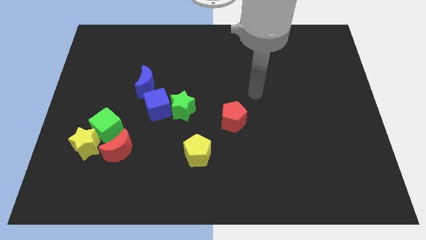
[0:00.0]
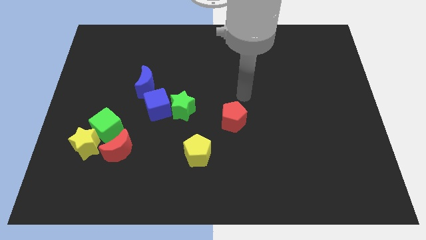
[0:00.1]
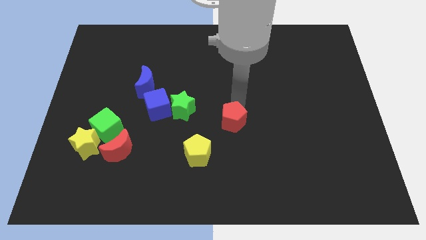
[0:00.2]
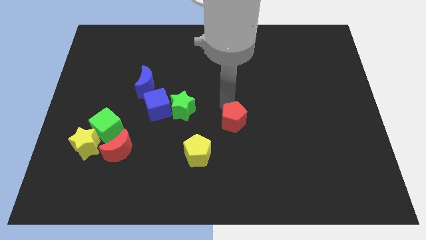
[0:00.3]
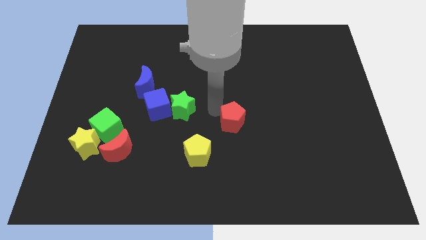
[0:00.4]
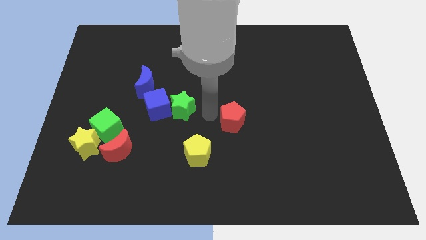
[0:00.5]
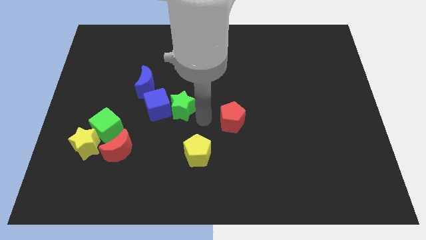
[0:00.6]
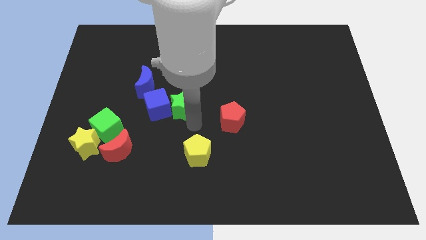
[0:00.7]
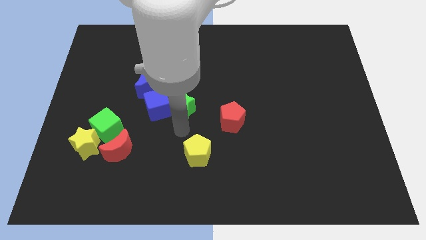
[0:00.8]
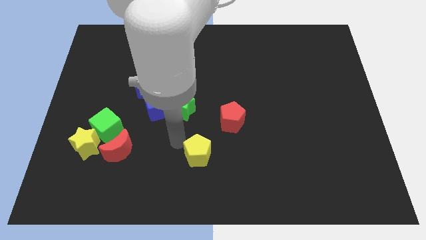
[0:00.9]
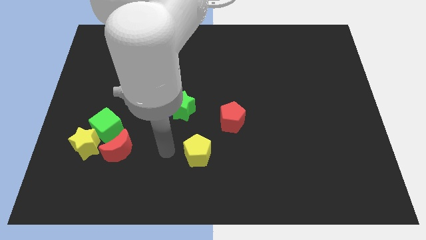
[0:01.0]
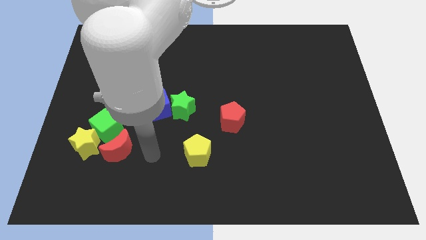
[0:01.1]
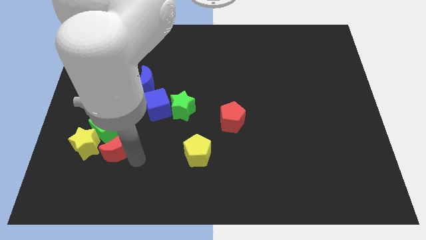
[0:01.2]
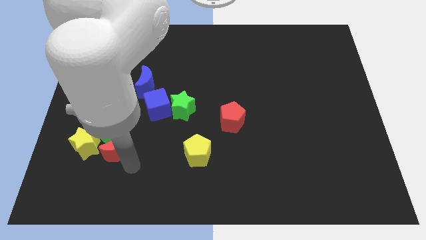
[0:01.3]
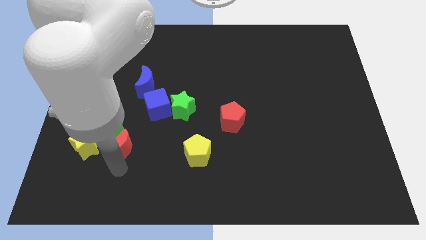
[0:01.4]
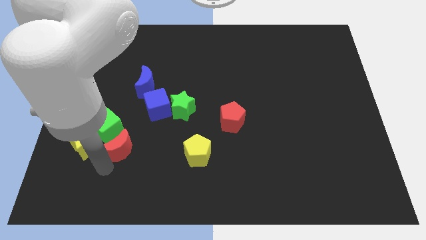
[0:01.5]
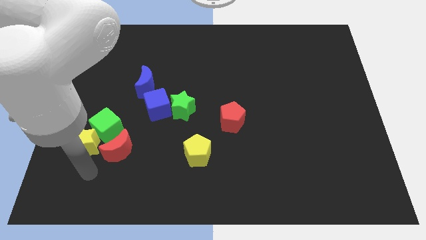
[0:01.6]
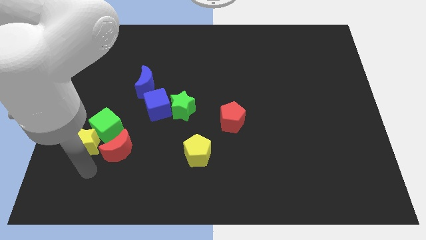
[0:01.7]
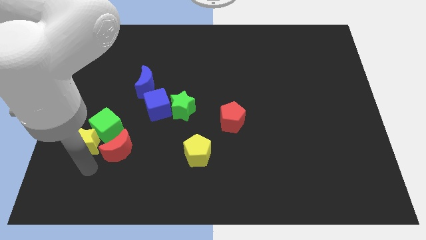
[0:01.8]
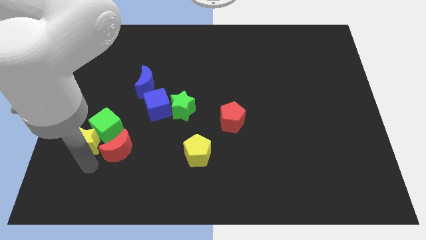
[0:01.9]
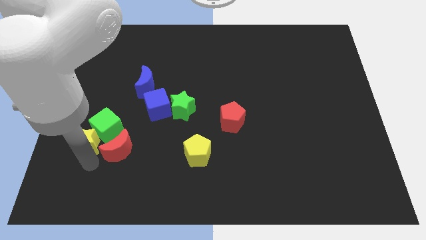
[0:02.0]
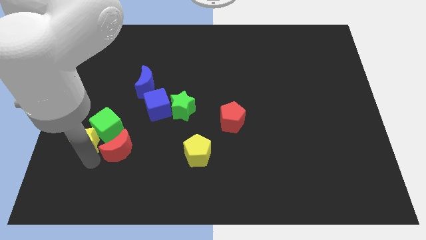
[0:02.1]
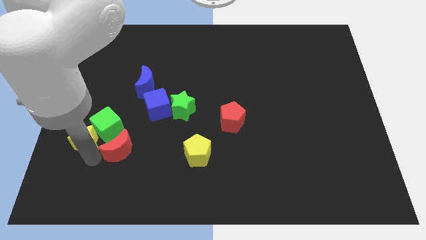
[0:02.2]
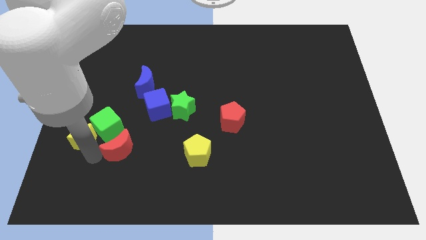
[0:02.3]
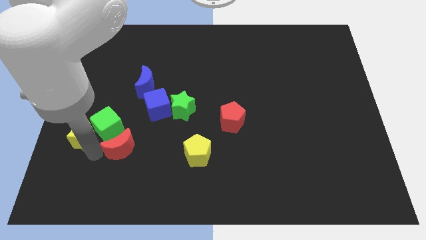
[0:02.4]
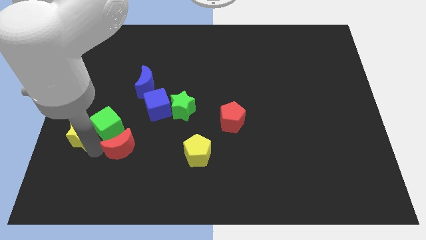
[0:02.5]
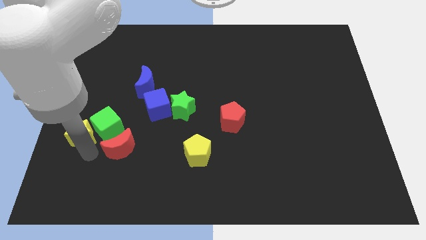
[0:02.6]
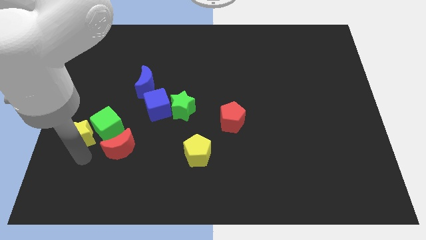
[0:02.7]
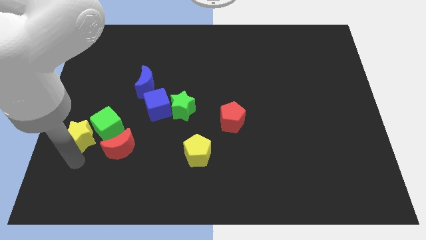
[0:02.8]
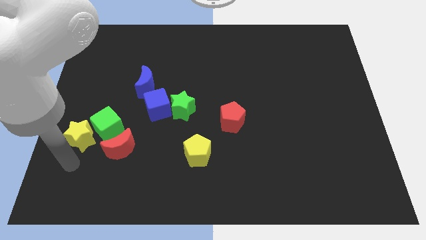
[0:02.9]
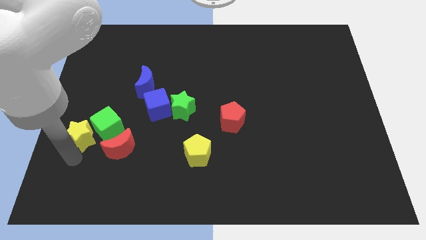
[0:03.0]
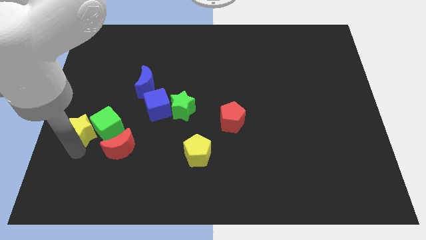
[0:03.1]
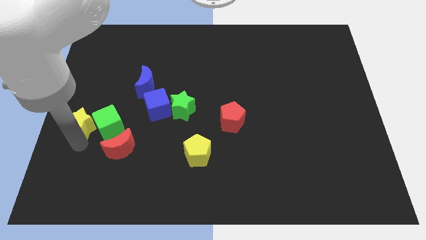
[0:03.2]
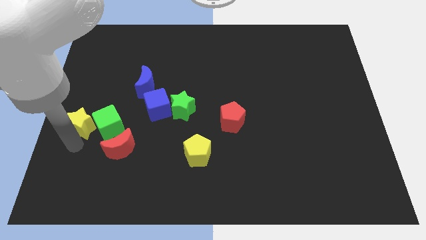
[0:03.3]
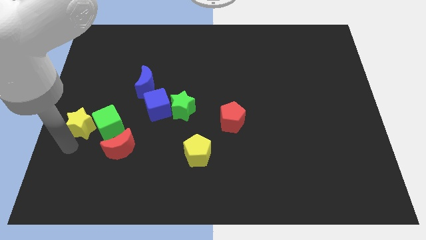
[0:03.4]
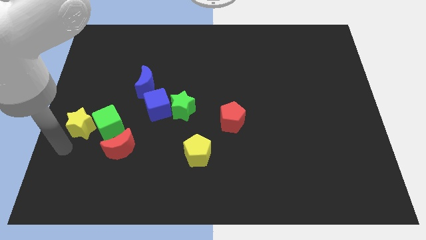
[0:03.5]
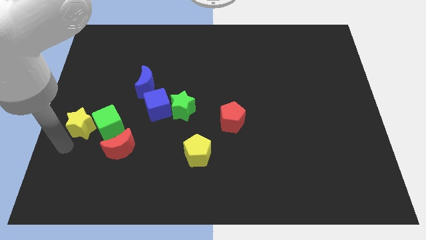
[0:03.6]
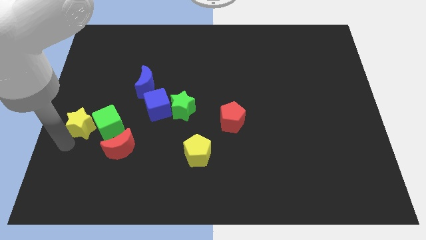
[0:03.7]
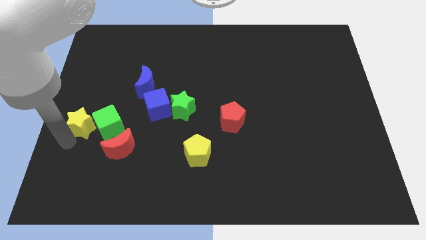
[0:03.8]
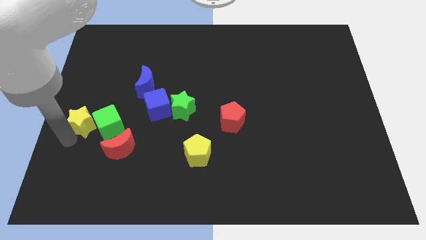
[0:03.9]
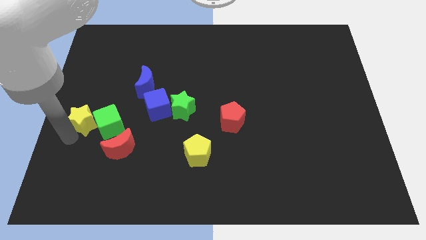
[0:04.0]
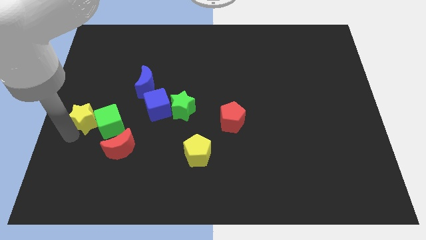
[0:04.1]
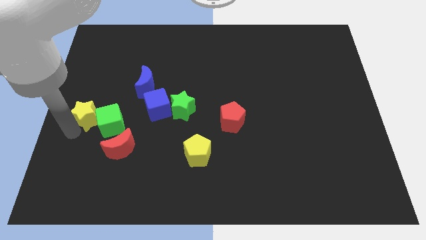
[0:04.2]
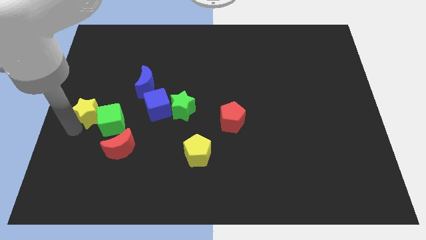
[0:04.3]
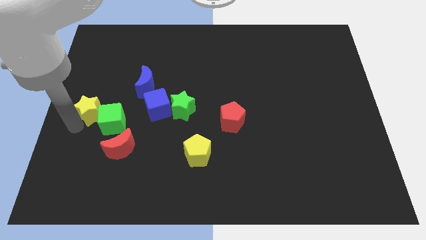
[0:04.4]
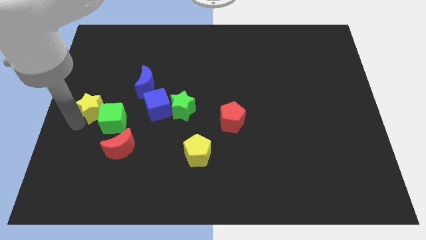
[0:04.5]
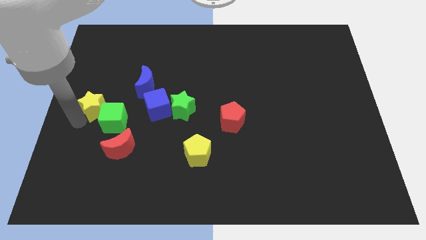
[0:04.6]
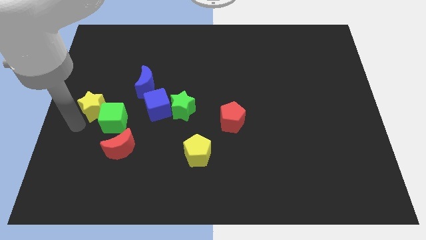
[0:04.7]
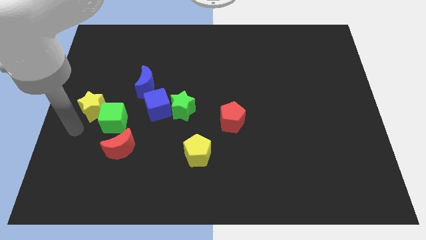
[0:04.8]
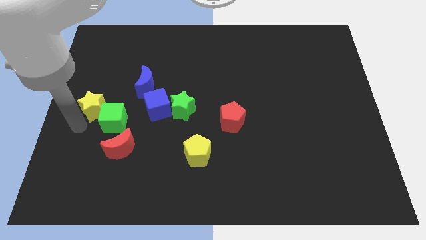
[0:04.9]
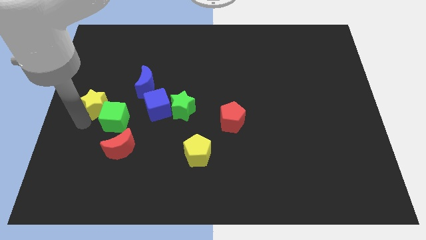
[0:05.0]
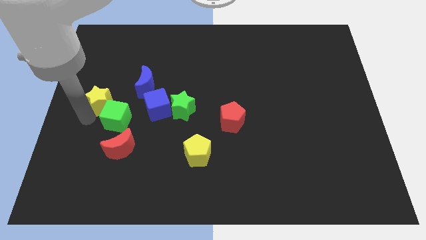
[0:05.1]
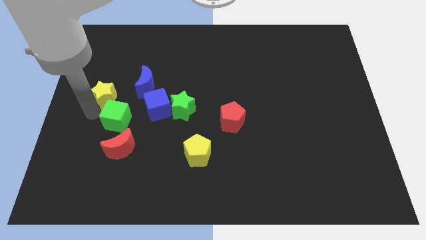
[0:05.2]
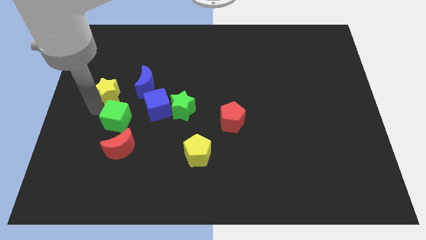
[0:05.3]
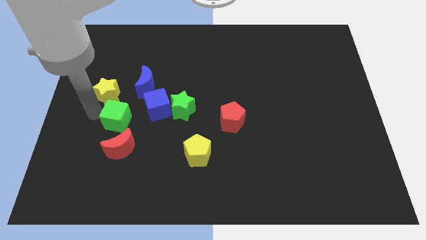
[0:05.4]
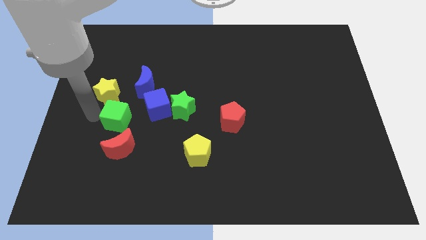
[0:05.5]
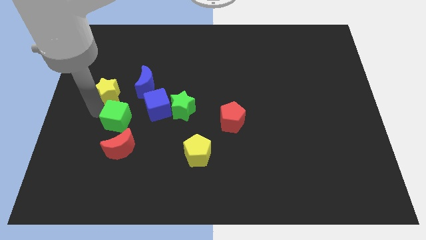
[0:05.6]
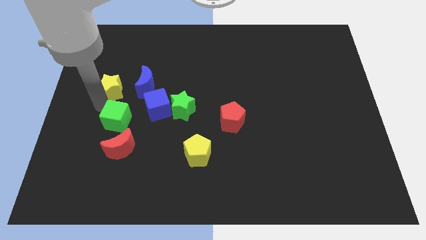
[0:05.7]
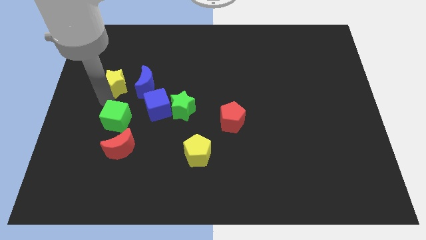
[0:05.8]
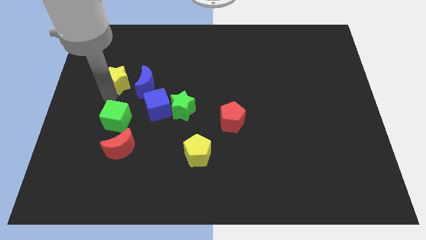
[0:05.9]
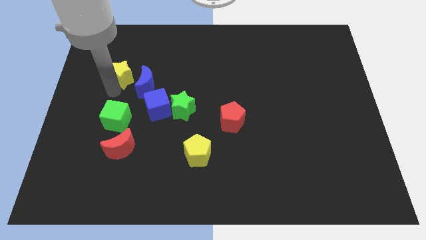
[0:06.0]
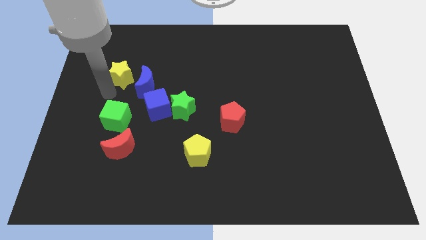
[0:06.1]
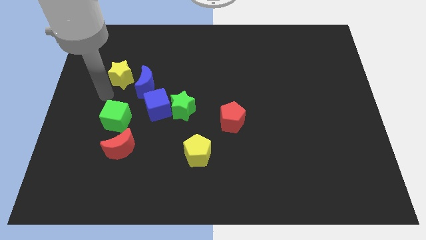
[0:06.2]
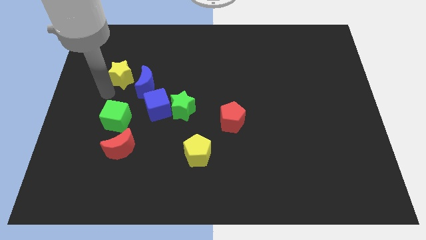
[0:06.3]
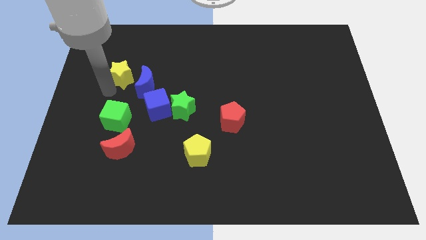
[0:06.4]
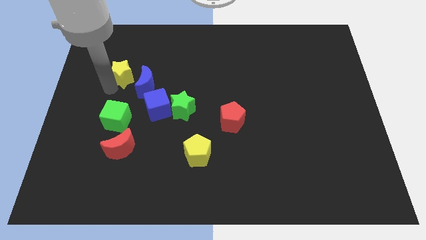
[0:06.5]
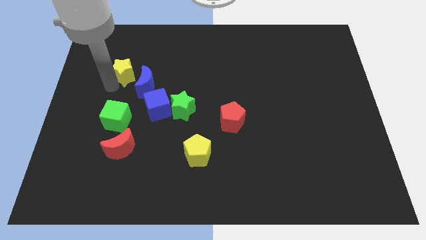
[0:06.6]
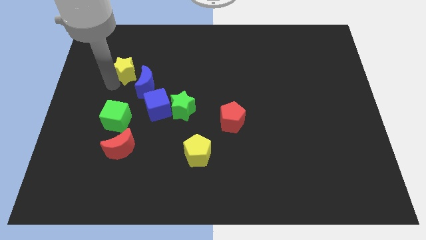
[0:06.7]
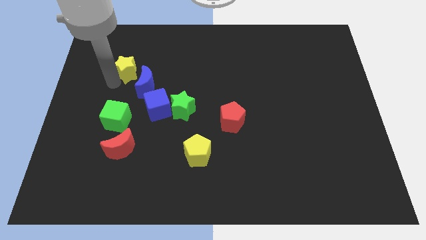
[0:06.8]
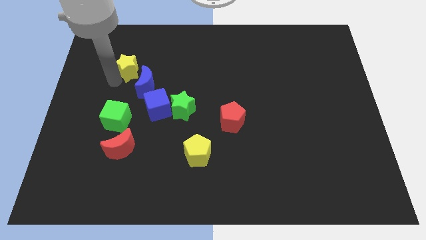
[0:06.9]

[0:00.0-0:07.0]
push the yellow star to the top side of the blue moon
